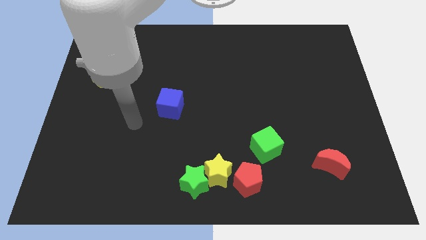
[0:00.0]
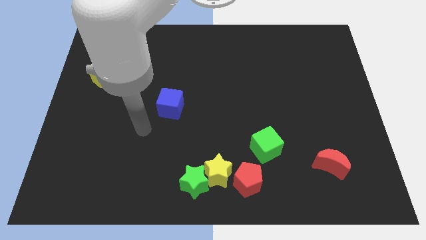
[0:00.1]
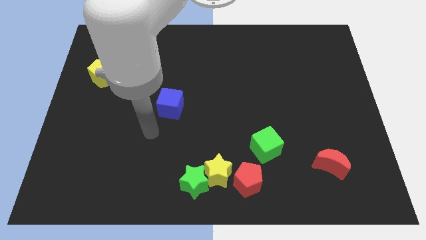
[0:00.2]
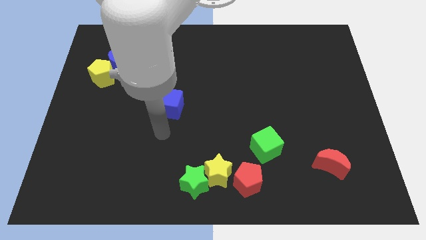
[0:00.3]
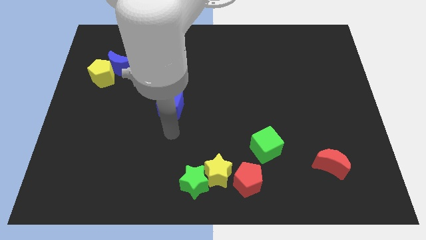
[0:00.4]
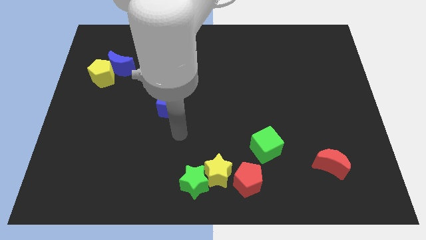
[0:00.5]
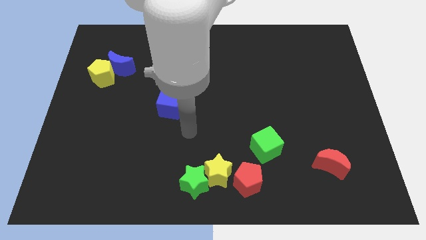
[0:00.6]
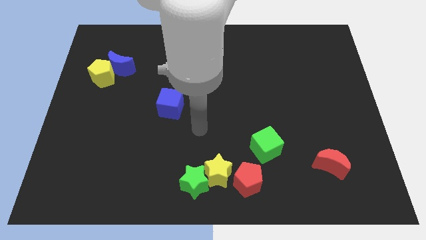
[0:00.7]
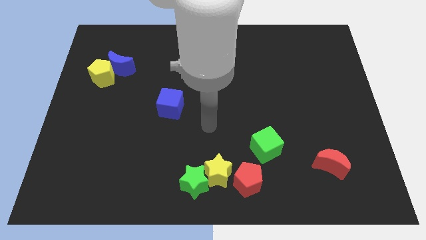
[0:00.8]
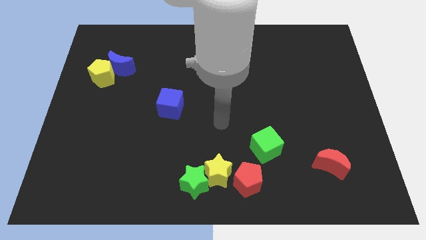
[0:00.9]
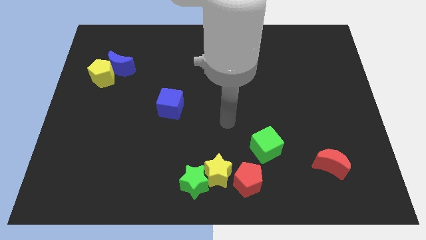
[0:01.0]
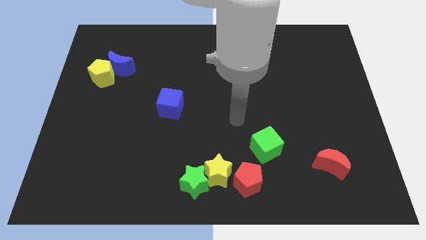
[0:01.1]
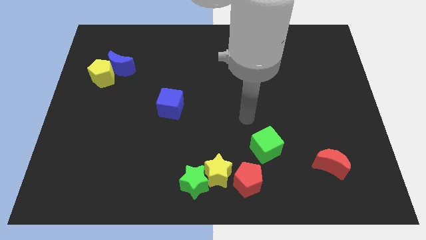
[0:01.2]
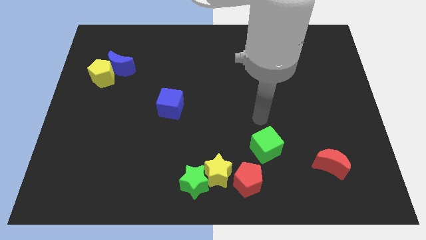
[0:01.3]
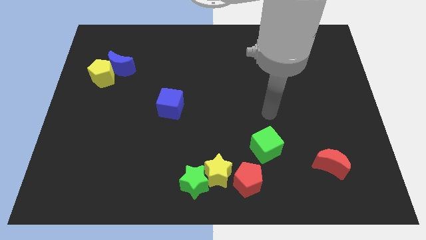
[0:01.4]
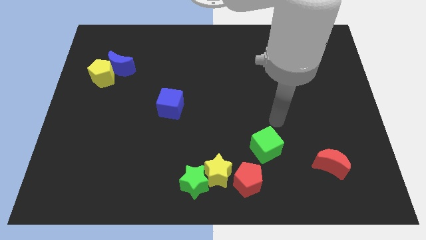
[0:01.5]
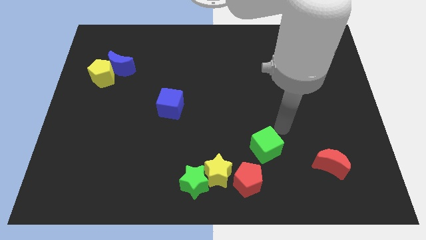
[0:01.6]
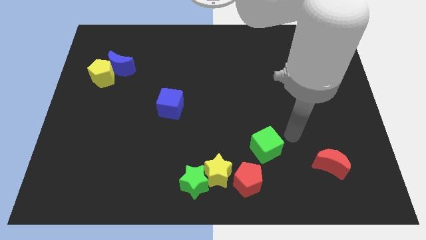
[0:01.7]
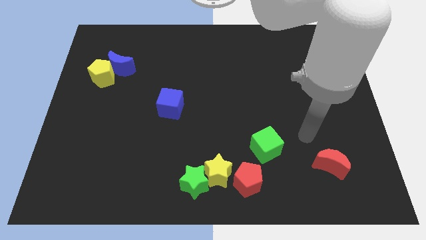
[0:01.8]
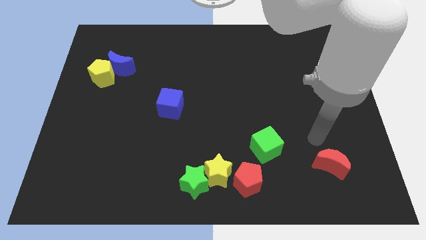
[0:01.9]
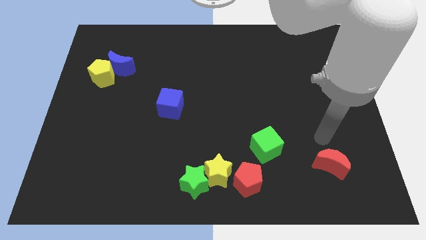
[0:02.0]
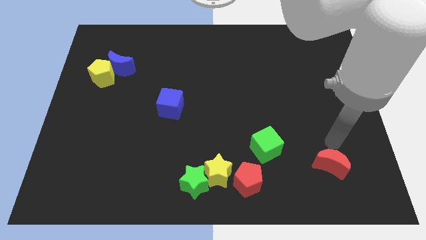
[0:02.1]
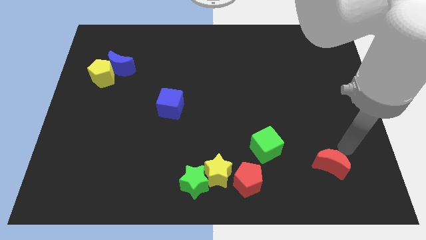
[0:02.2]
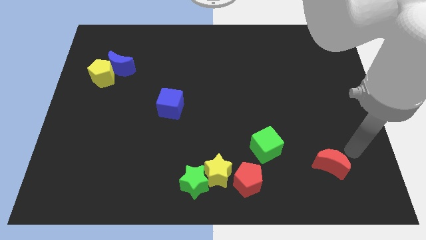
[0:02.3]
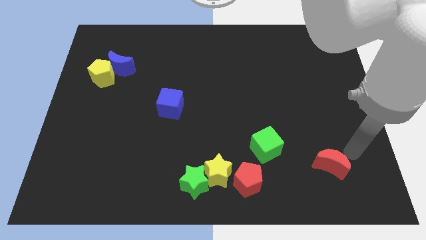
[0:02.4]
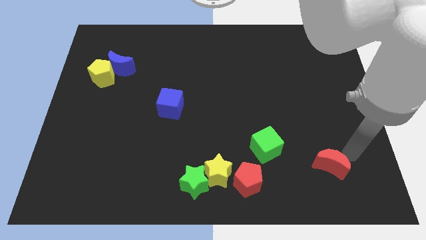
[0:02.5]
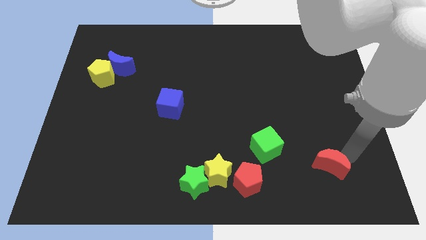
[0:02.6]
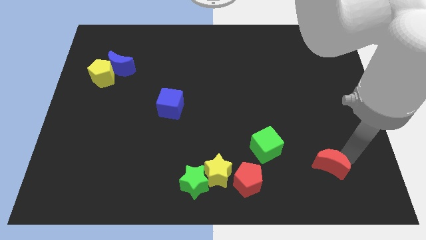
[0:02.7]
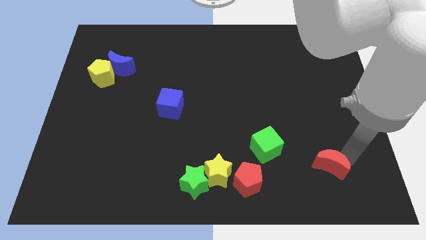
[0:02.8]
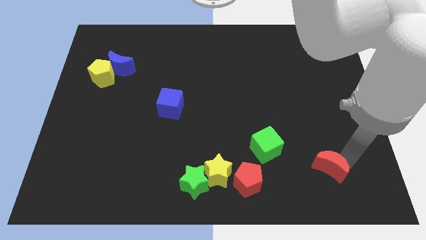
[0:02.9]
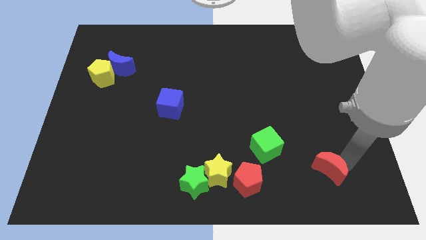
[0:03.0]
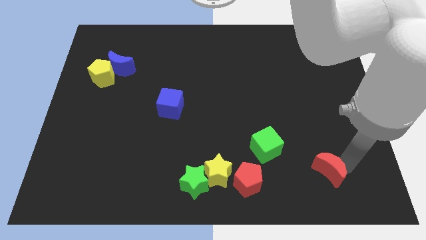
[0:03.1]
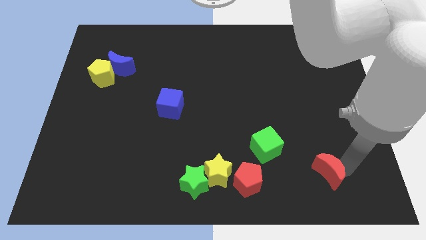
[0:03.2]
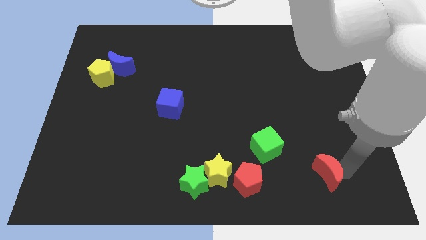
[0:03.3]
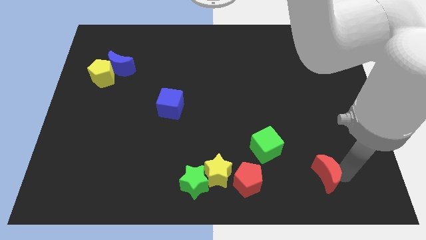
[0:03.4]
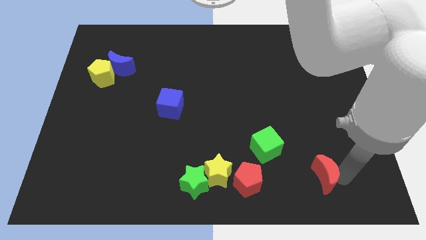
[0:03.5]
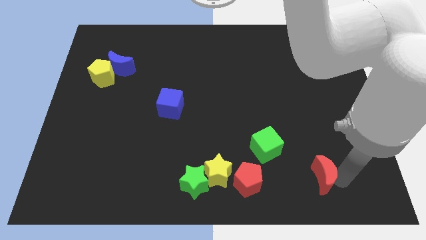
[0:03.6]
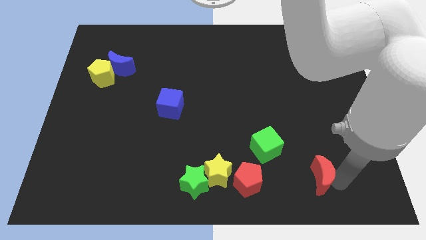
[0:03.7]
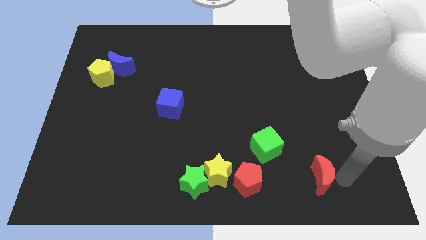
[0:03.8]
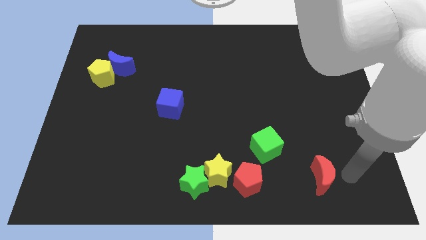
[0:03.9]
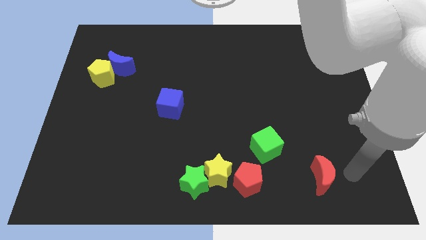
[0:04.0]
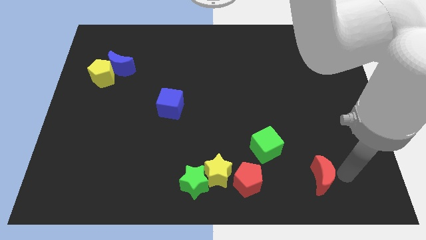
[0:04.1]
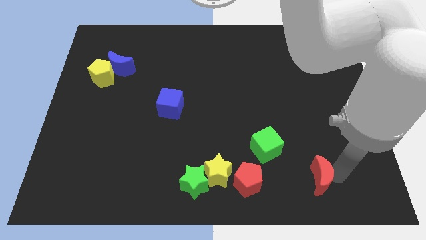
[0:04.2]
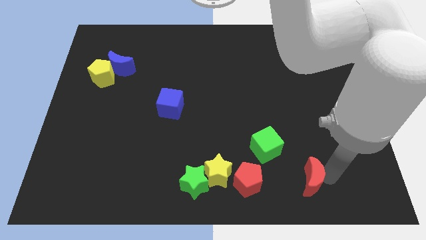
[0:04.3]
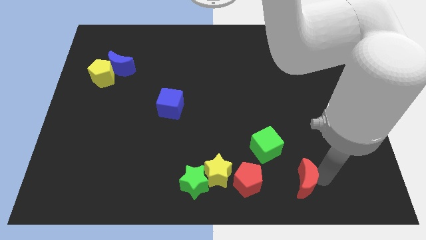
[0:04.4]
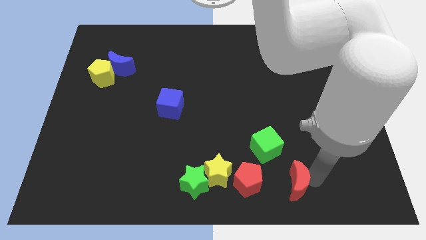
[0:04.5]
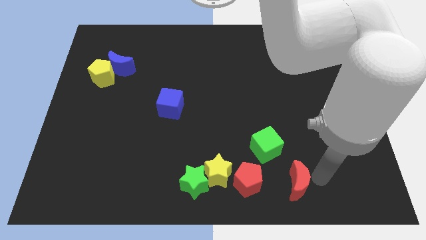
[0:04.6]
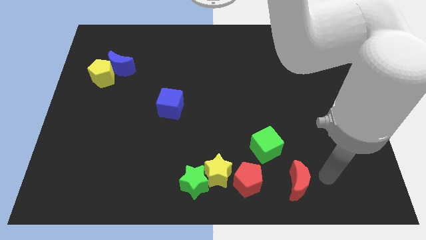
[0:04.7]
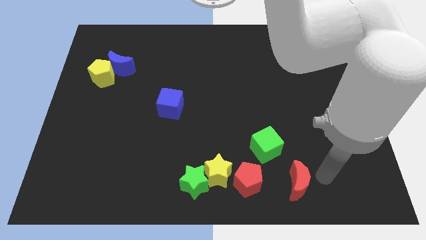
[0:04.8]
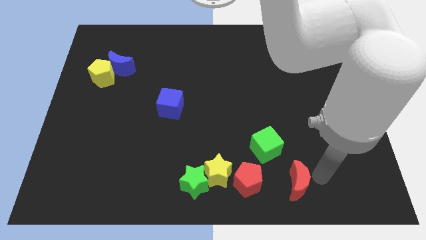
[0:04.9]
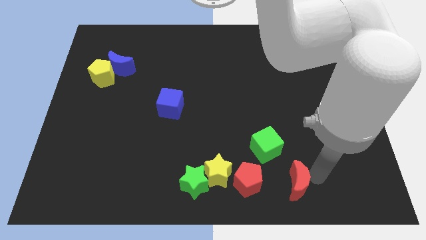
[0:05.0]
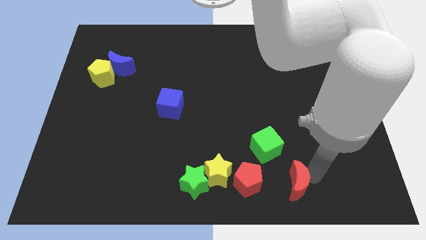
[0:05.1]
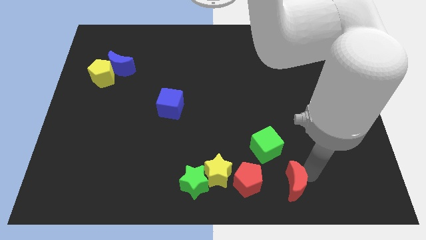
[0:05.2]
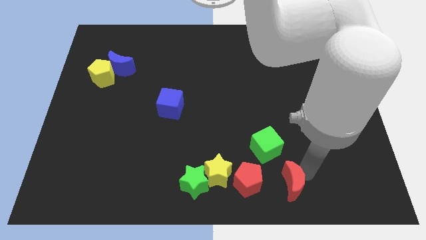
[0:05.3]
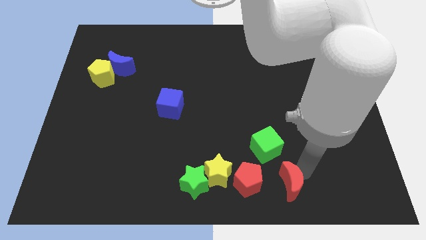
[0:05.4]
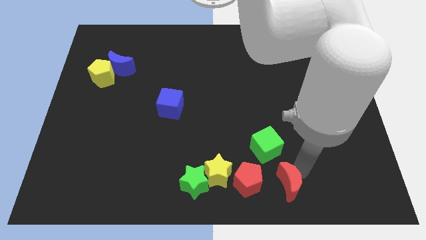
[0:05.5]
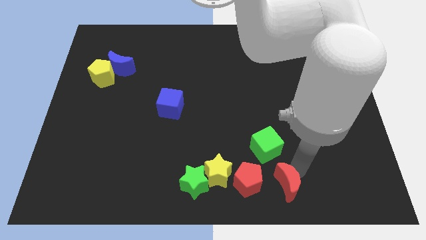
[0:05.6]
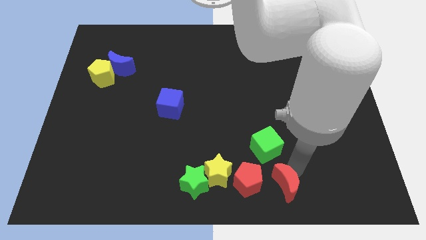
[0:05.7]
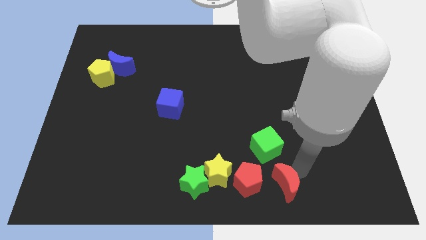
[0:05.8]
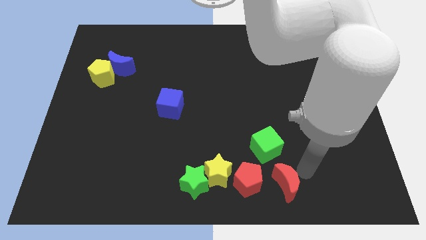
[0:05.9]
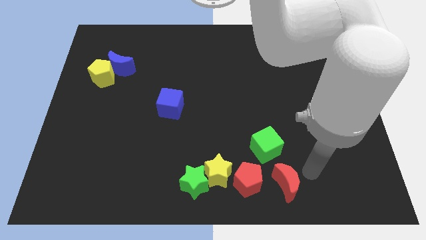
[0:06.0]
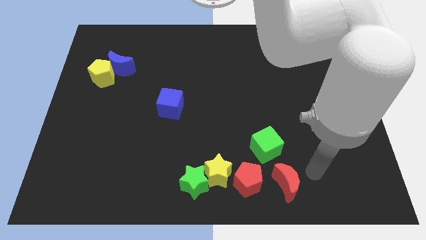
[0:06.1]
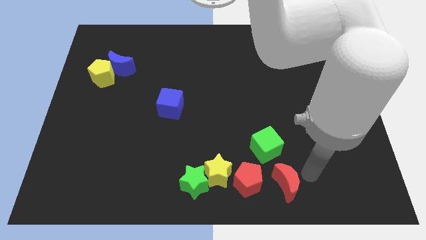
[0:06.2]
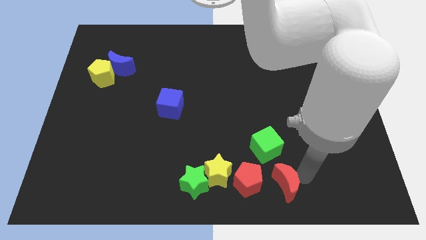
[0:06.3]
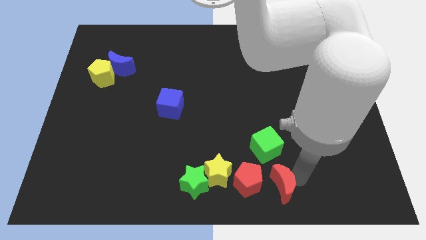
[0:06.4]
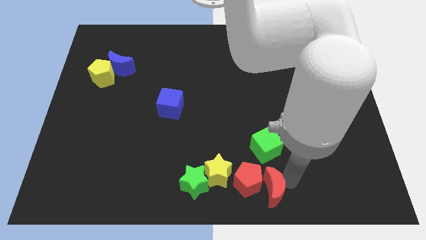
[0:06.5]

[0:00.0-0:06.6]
put the red moon to the bottom side
